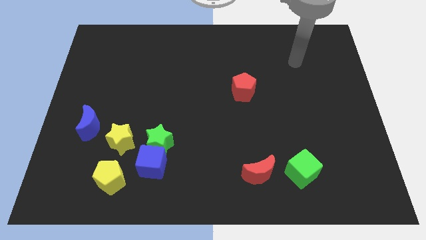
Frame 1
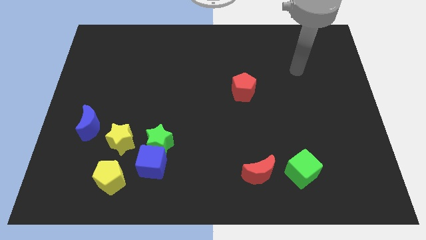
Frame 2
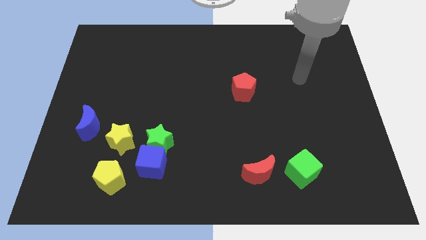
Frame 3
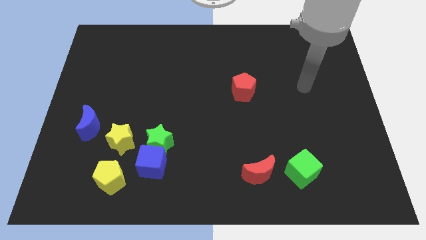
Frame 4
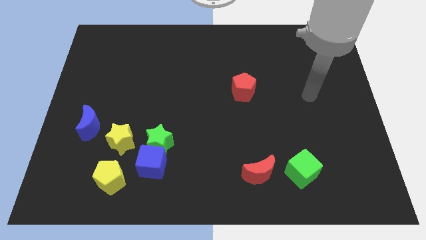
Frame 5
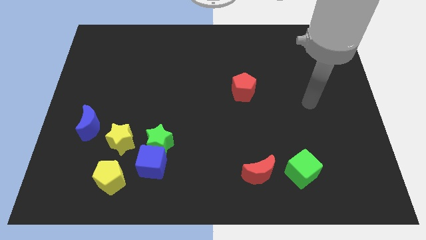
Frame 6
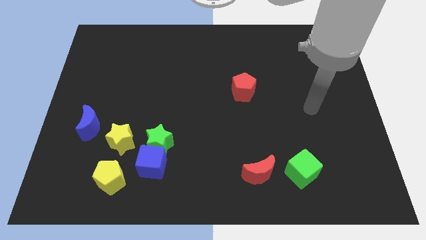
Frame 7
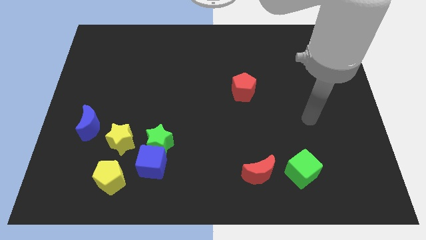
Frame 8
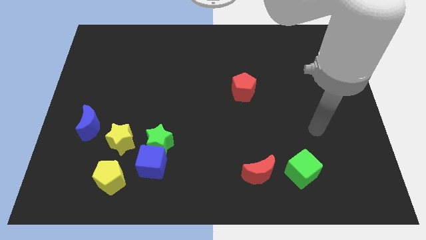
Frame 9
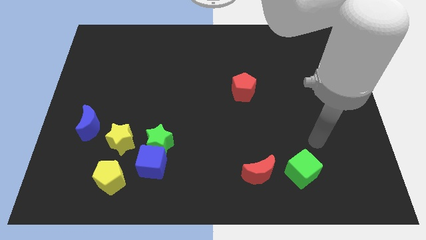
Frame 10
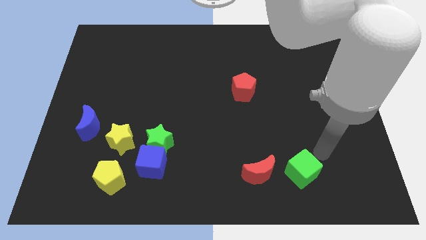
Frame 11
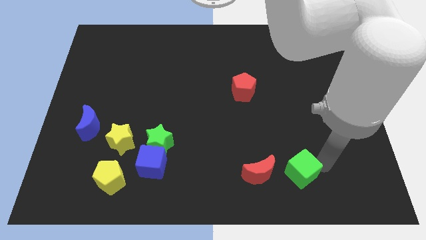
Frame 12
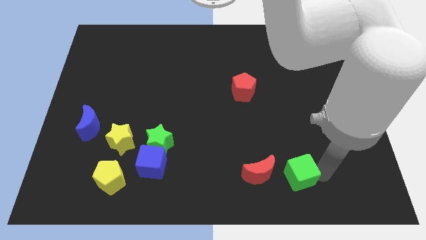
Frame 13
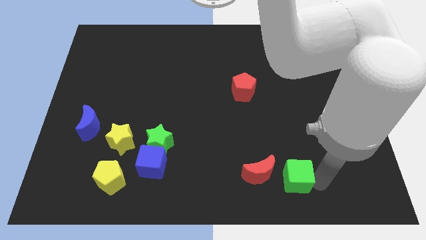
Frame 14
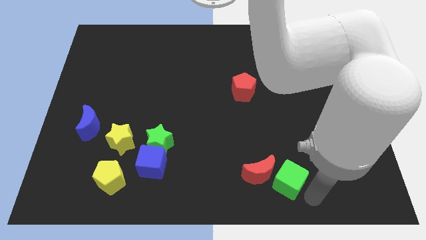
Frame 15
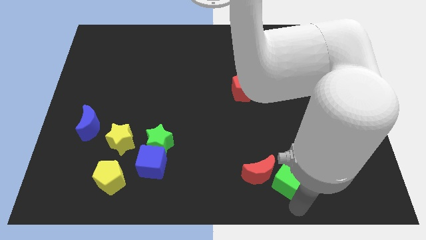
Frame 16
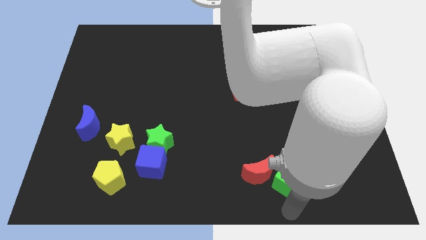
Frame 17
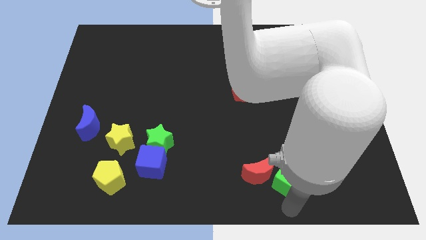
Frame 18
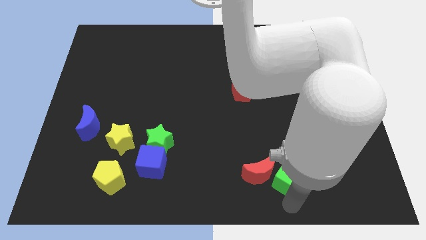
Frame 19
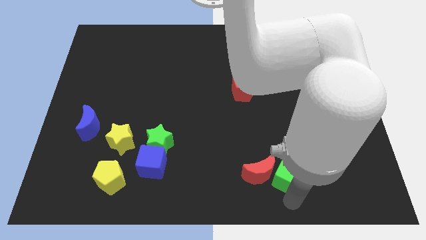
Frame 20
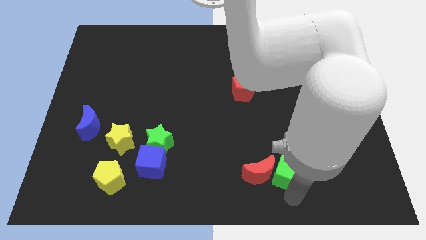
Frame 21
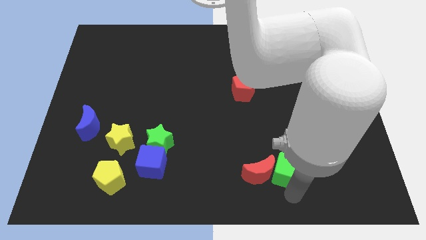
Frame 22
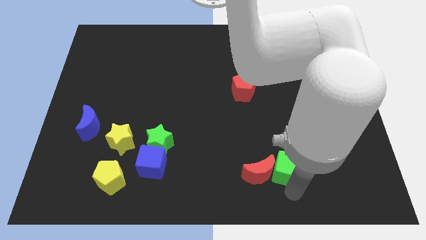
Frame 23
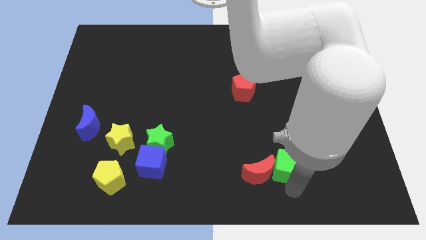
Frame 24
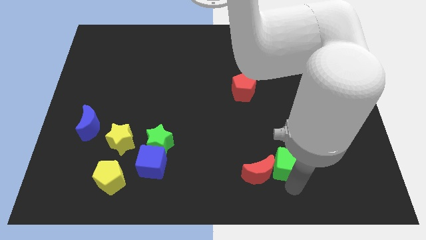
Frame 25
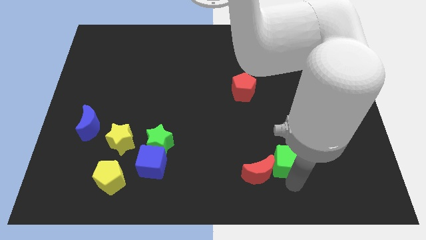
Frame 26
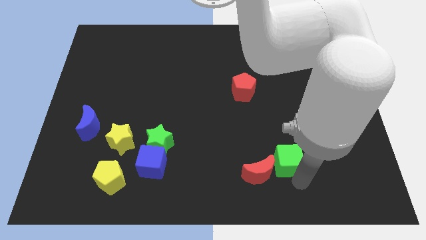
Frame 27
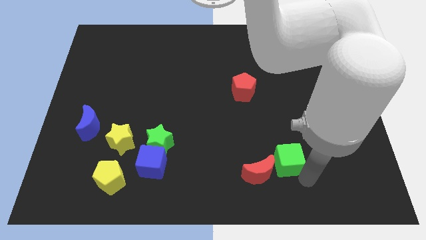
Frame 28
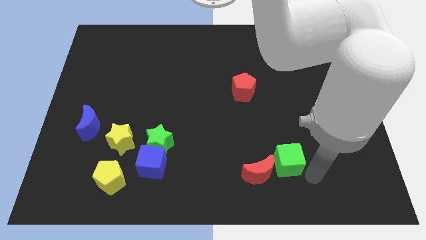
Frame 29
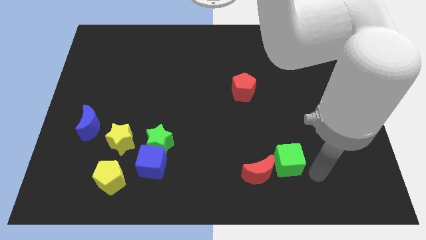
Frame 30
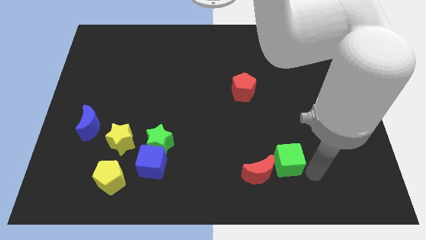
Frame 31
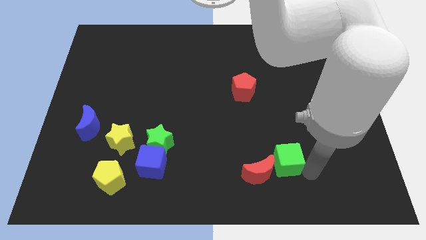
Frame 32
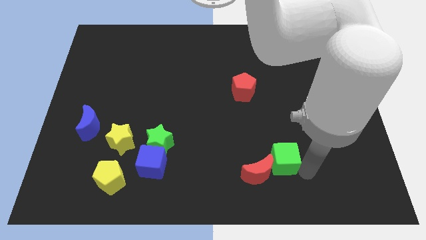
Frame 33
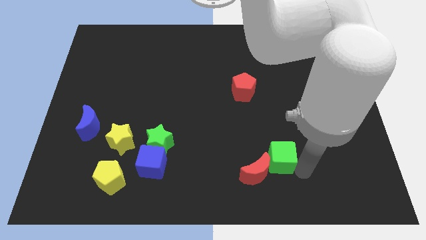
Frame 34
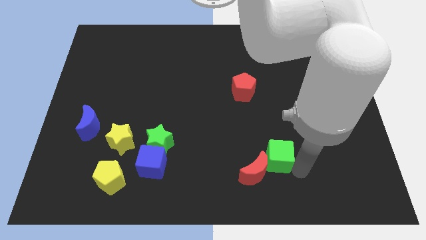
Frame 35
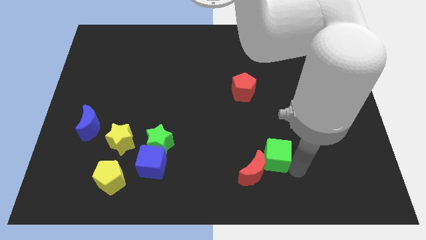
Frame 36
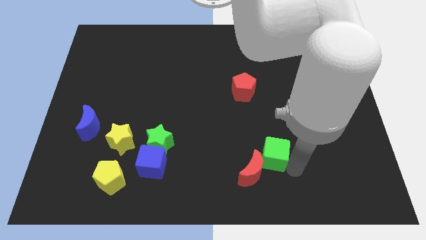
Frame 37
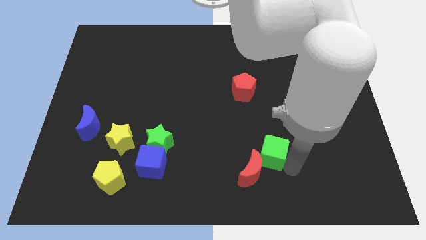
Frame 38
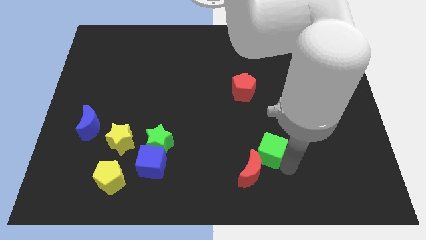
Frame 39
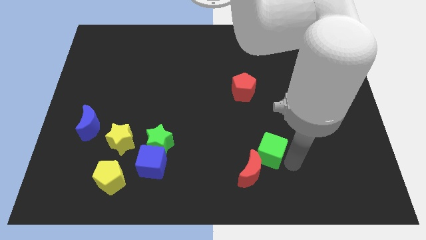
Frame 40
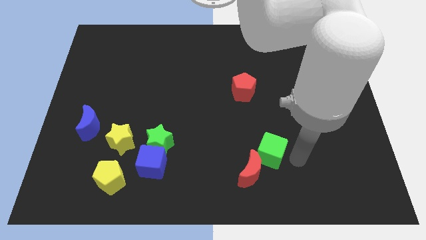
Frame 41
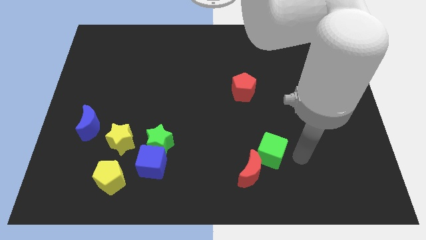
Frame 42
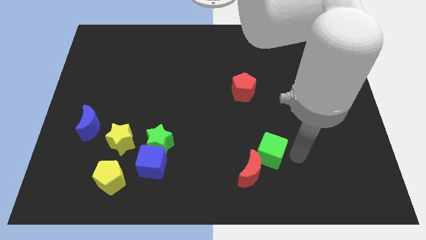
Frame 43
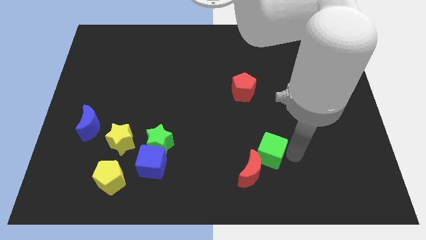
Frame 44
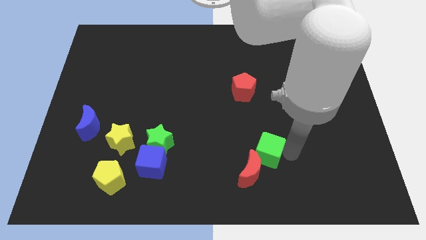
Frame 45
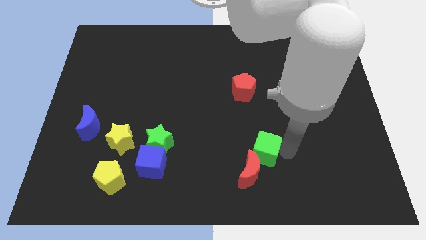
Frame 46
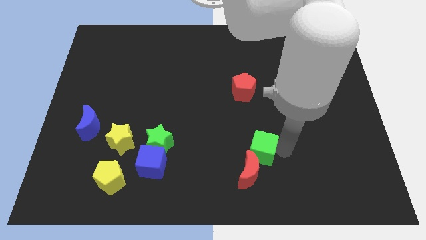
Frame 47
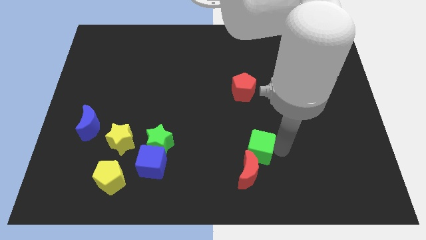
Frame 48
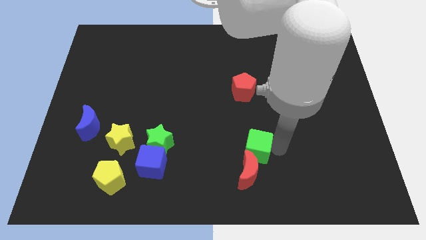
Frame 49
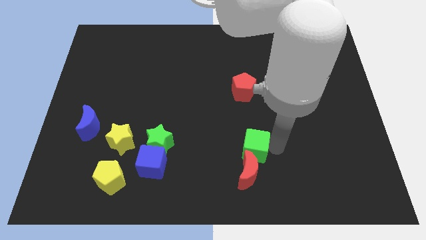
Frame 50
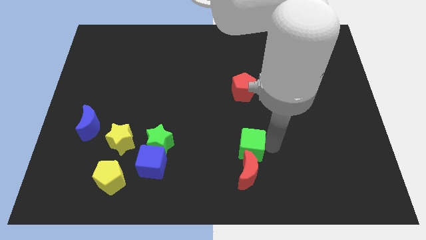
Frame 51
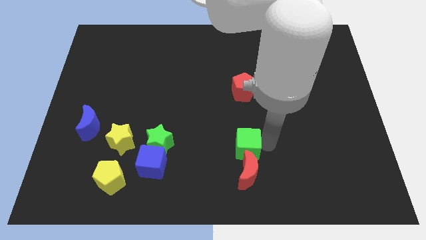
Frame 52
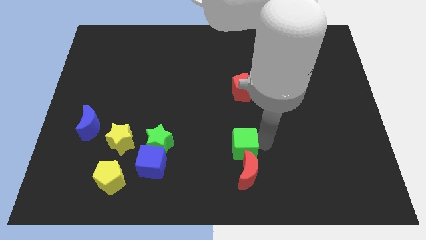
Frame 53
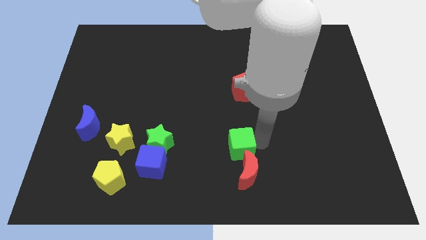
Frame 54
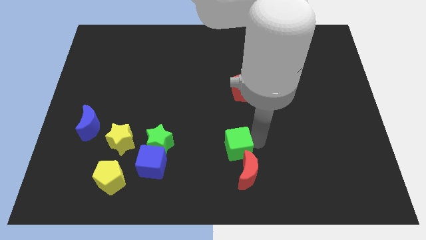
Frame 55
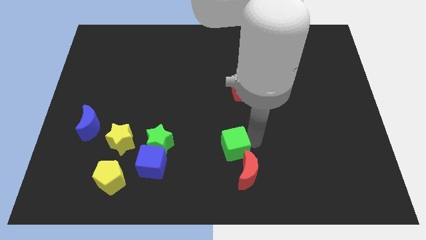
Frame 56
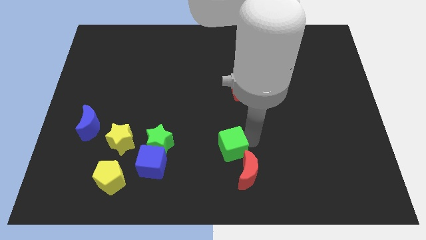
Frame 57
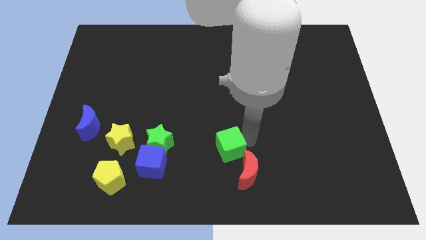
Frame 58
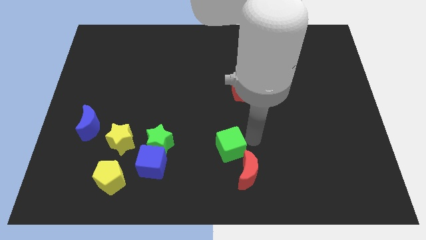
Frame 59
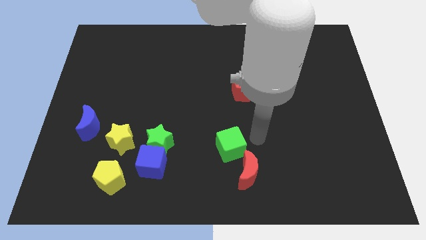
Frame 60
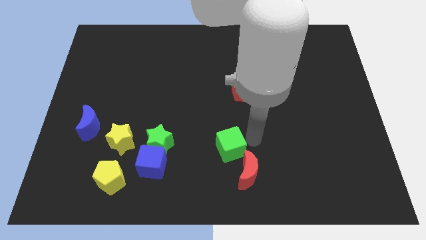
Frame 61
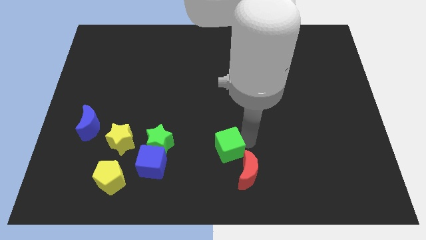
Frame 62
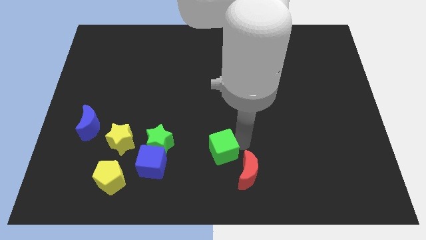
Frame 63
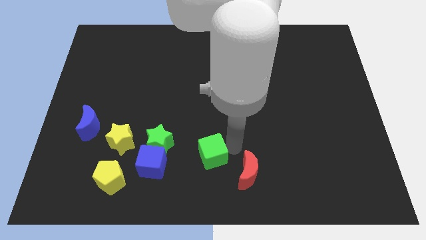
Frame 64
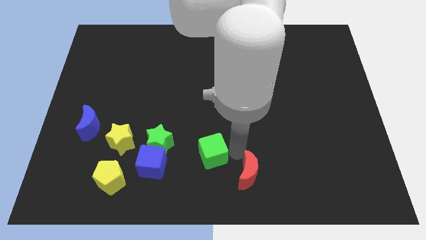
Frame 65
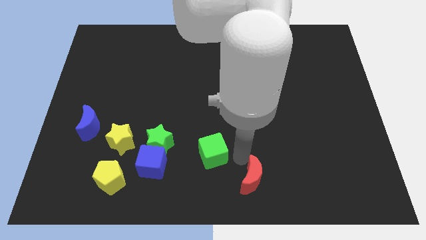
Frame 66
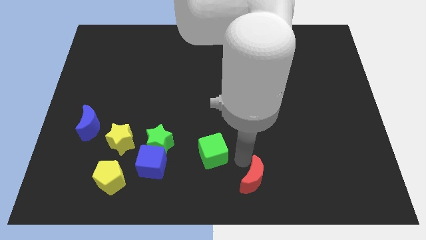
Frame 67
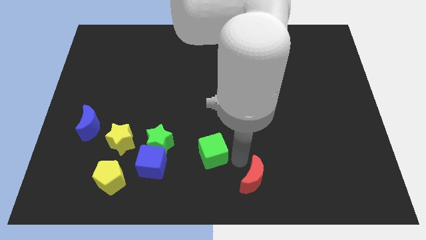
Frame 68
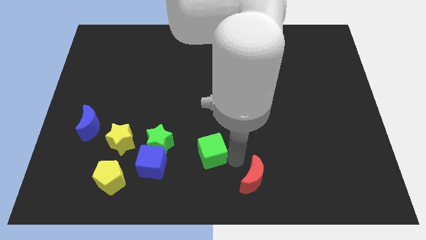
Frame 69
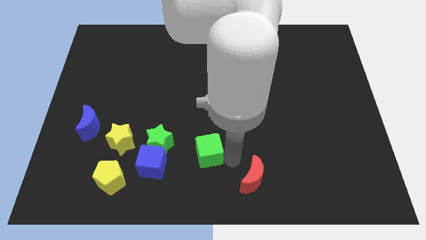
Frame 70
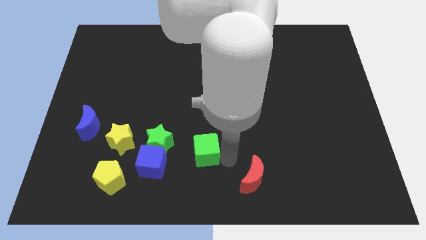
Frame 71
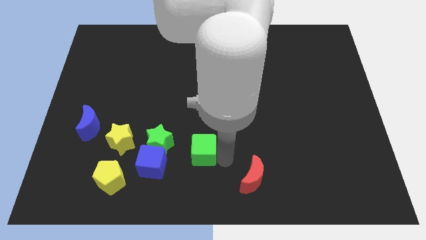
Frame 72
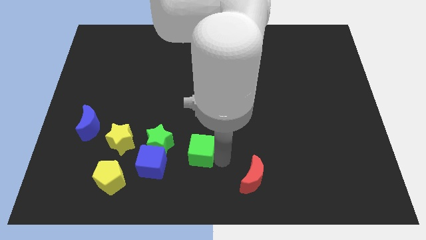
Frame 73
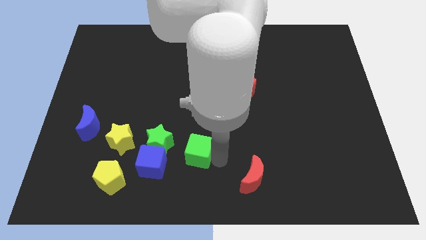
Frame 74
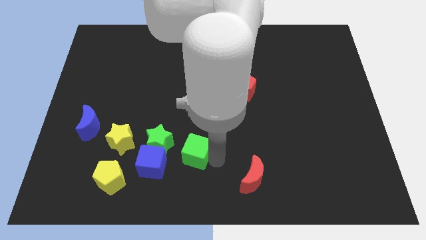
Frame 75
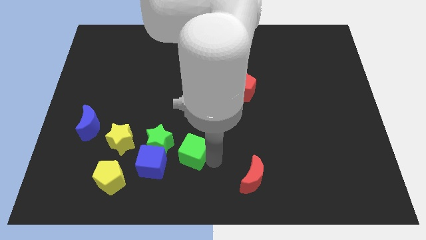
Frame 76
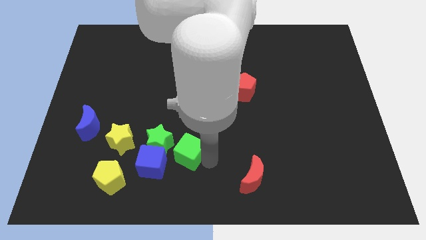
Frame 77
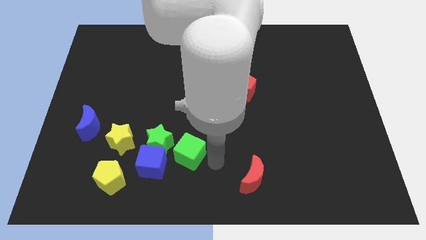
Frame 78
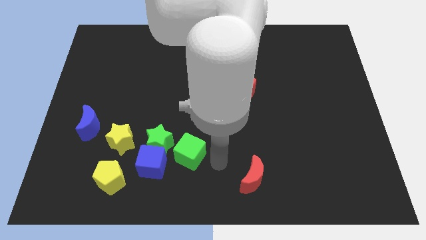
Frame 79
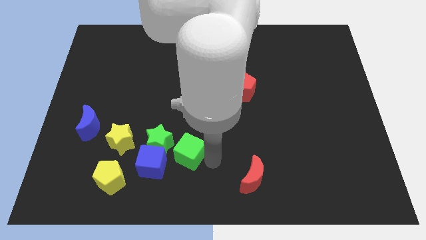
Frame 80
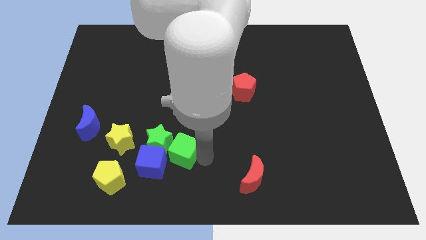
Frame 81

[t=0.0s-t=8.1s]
push the green cube next to the green star
